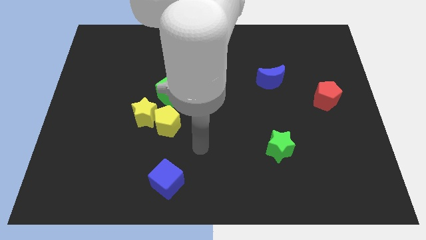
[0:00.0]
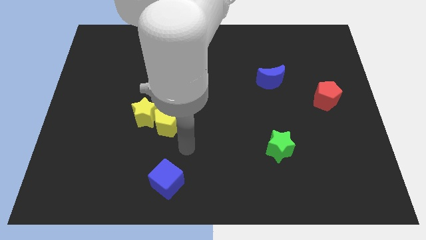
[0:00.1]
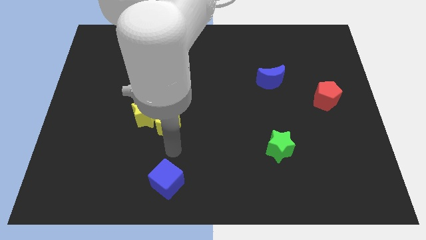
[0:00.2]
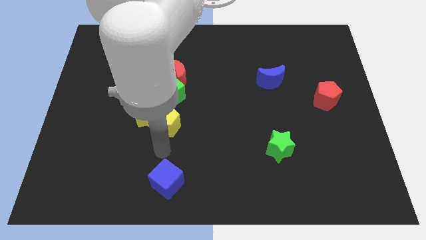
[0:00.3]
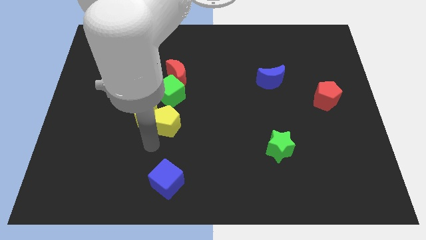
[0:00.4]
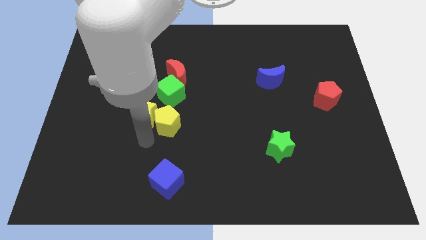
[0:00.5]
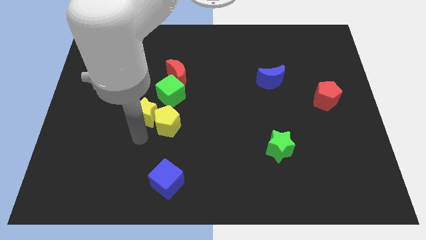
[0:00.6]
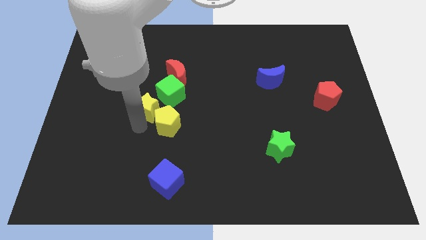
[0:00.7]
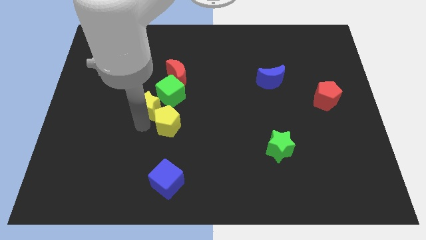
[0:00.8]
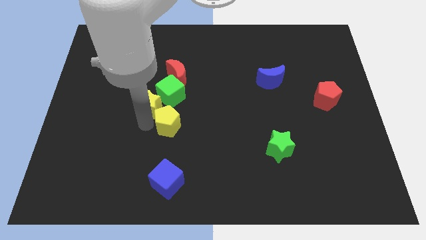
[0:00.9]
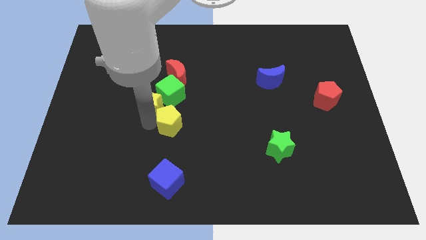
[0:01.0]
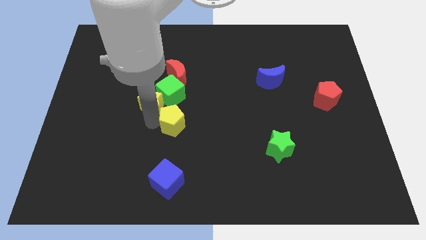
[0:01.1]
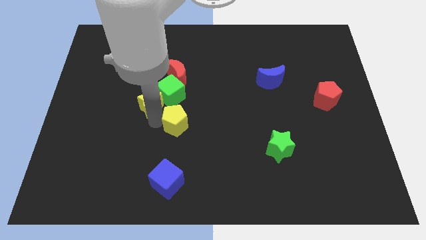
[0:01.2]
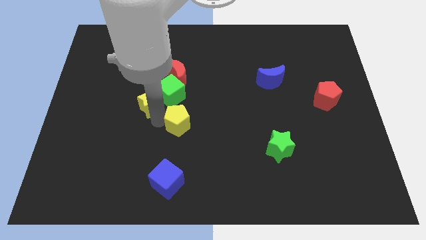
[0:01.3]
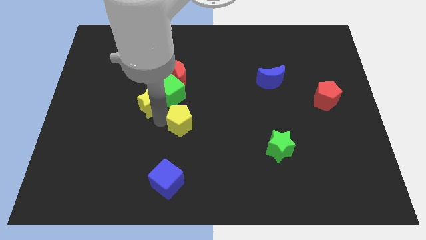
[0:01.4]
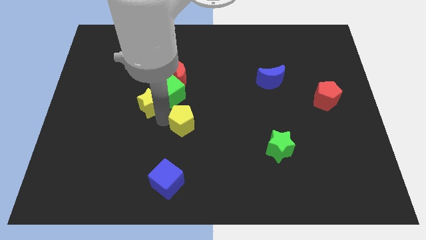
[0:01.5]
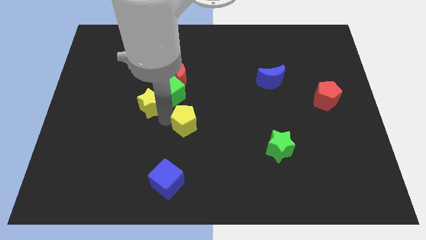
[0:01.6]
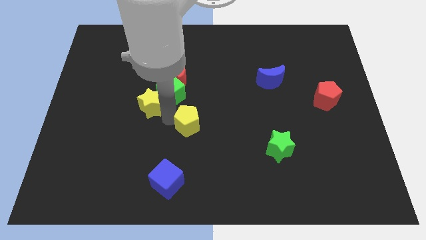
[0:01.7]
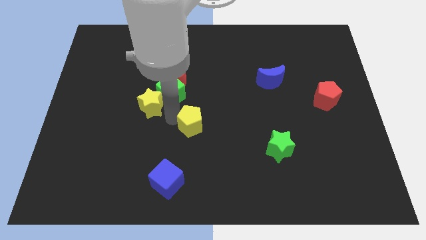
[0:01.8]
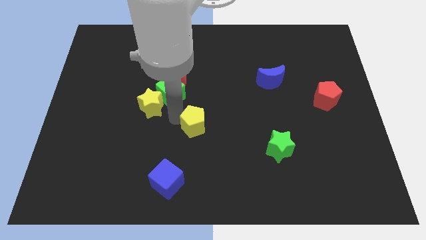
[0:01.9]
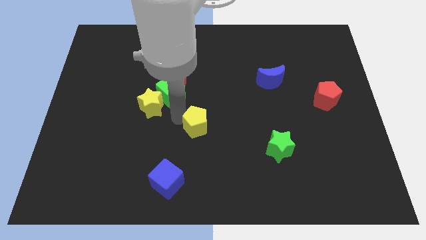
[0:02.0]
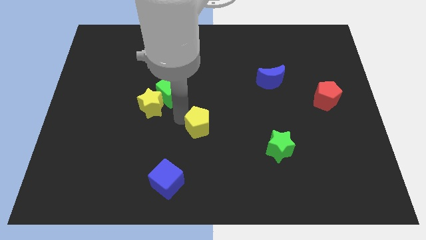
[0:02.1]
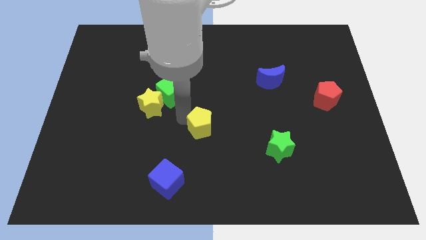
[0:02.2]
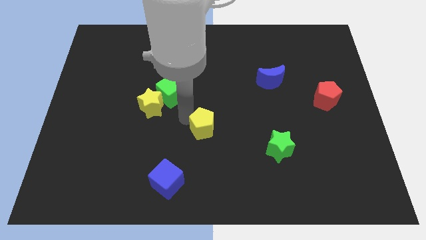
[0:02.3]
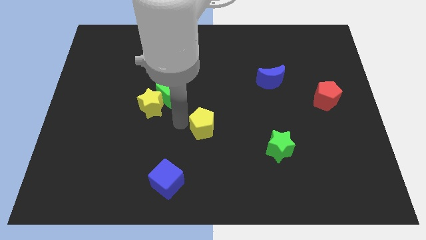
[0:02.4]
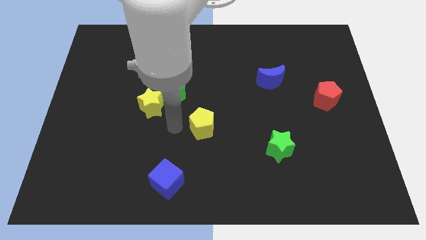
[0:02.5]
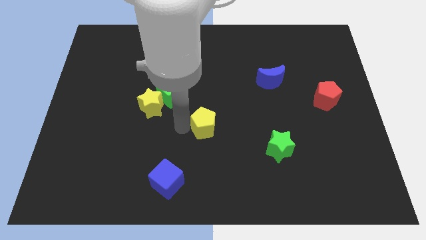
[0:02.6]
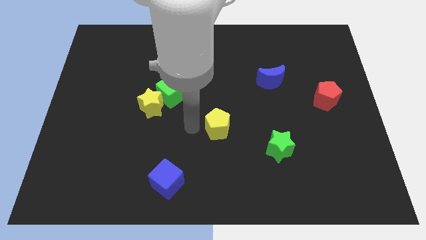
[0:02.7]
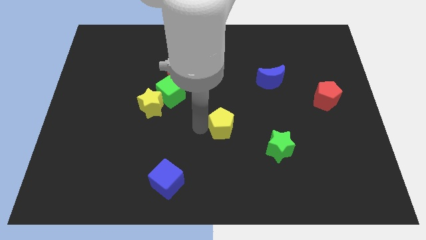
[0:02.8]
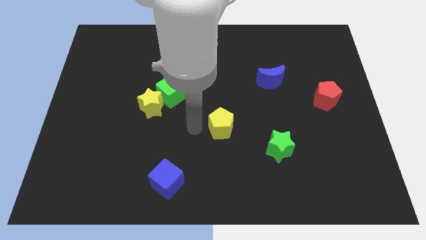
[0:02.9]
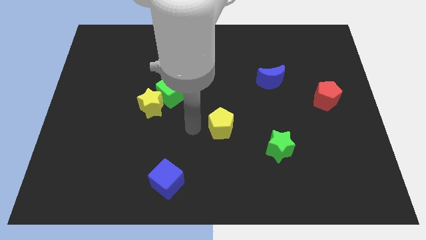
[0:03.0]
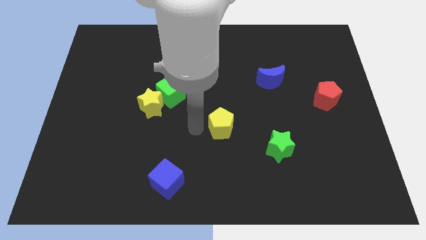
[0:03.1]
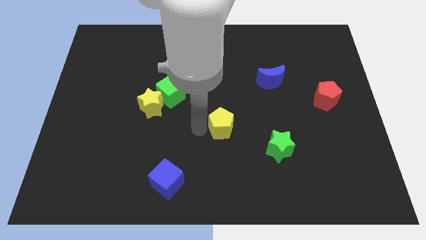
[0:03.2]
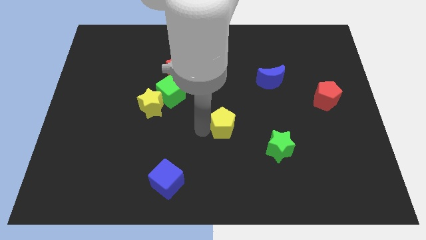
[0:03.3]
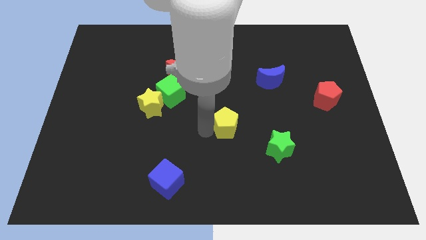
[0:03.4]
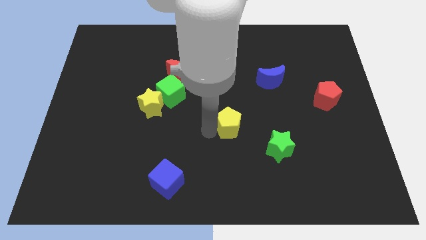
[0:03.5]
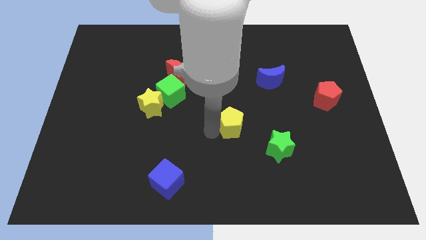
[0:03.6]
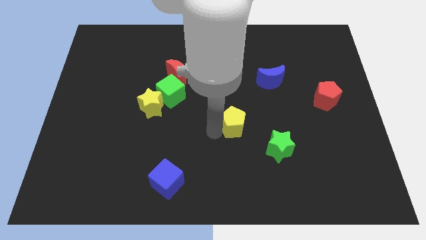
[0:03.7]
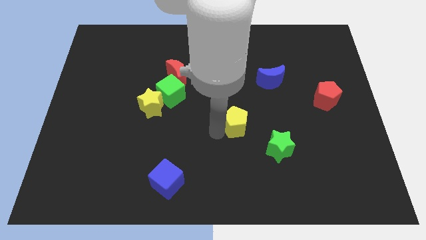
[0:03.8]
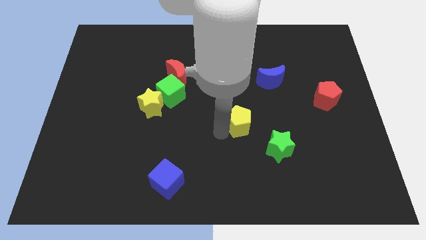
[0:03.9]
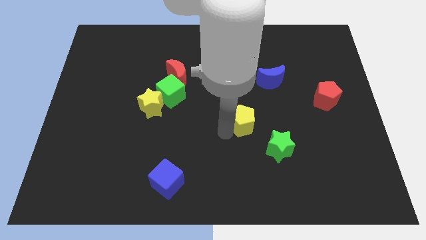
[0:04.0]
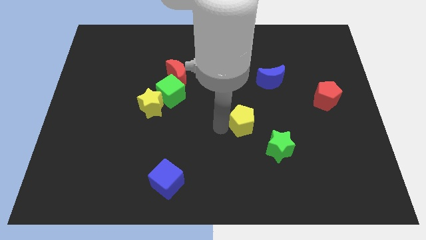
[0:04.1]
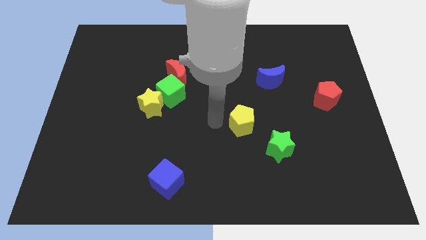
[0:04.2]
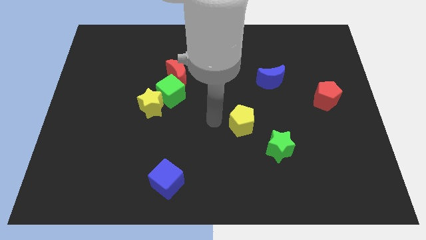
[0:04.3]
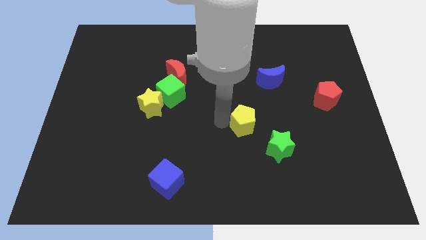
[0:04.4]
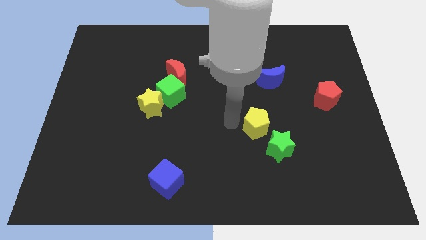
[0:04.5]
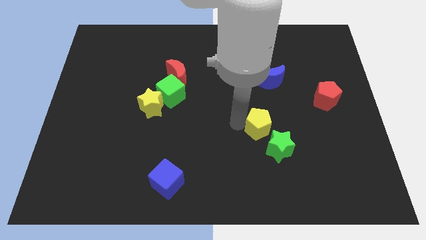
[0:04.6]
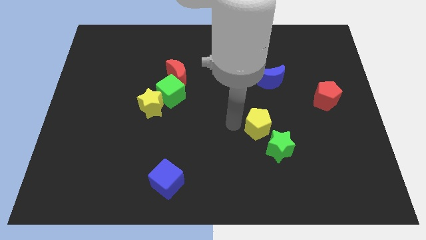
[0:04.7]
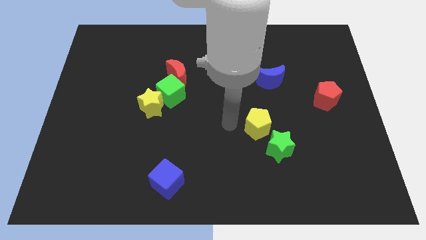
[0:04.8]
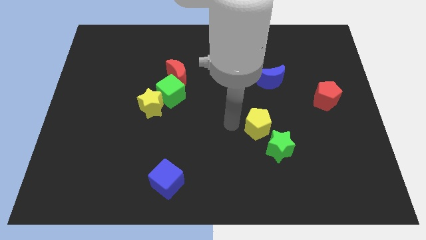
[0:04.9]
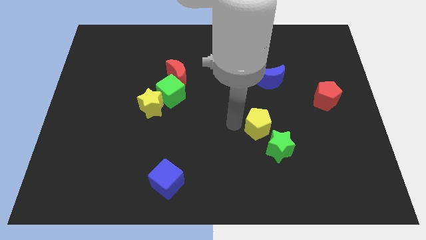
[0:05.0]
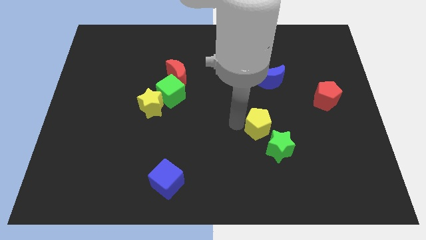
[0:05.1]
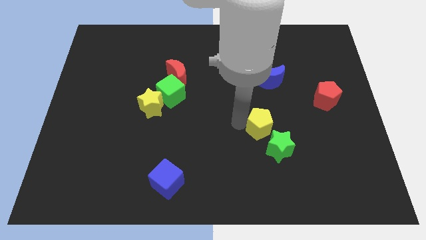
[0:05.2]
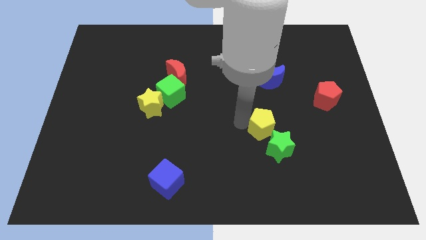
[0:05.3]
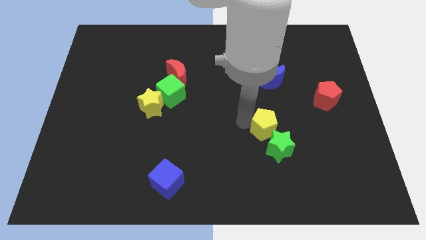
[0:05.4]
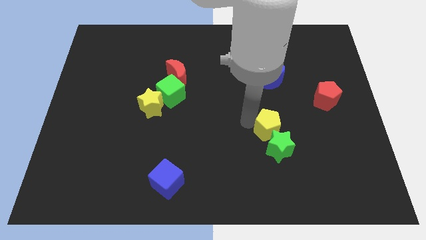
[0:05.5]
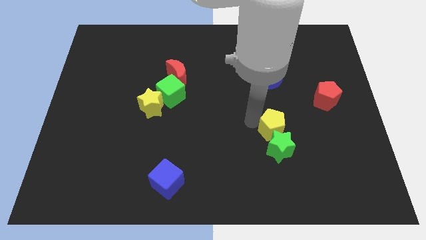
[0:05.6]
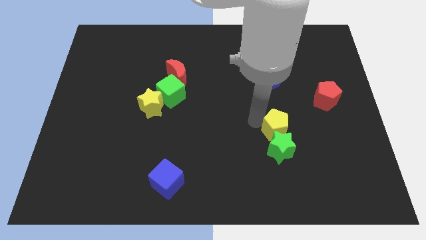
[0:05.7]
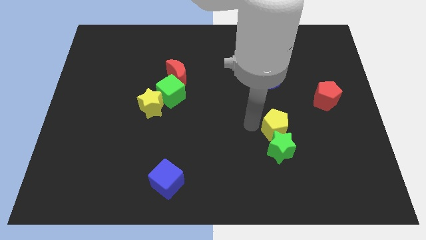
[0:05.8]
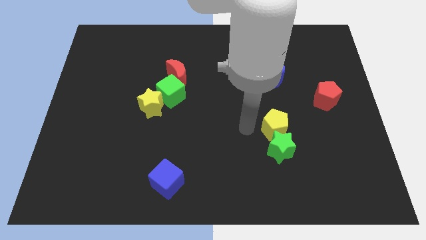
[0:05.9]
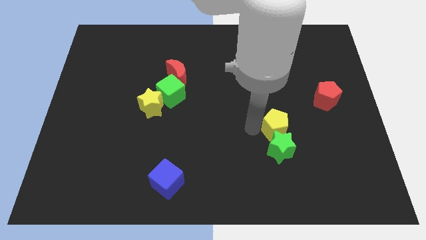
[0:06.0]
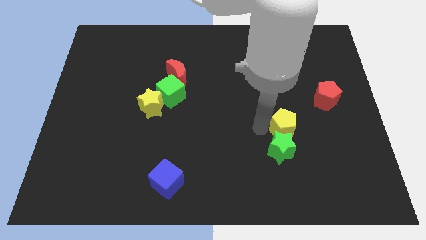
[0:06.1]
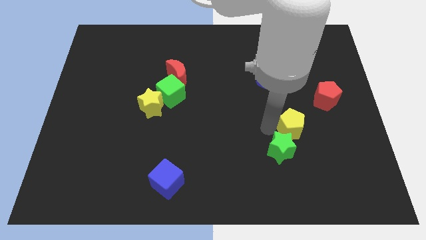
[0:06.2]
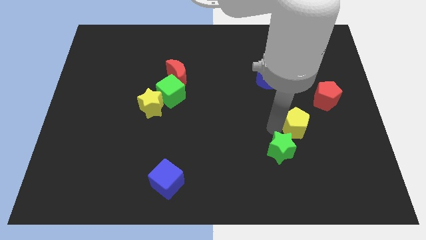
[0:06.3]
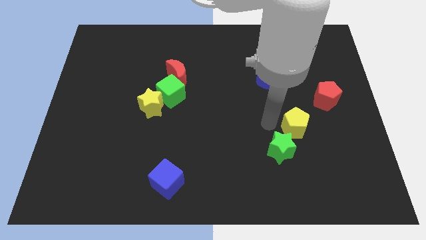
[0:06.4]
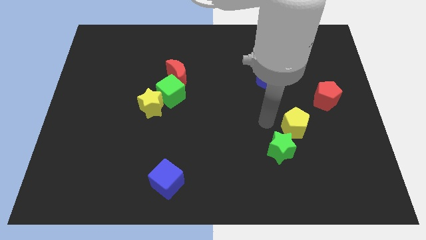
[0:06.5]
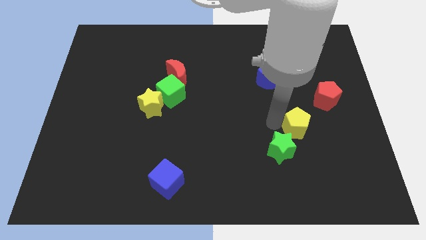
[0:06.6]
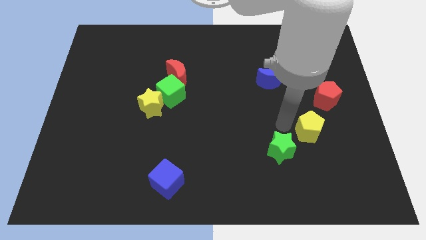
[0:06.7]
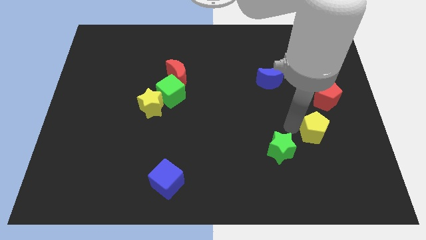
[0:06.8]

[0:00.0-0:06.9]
slide the yellow pentagon below the red pentagon

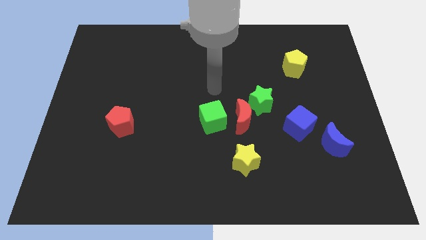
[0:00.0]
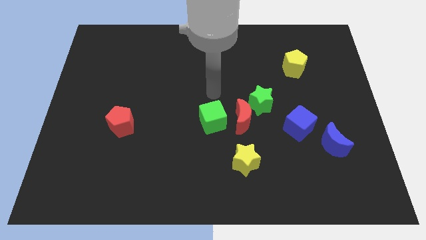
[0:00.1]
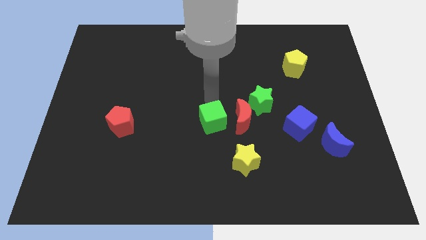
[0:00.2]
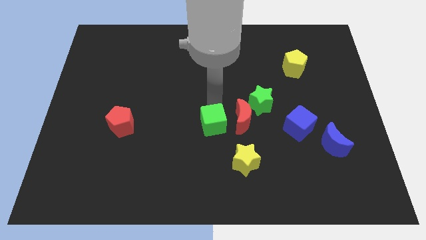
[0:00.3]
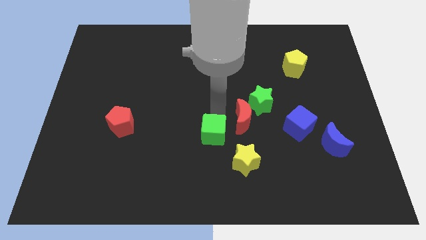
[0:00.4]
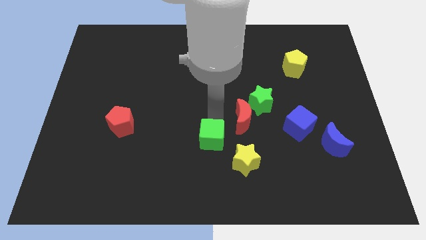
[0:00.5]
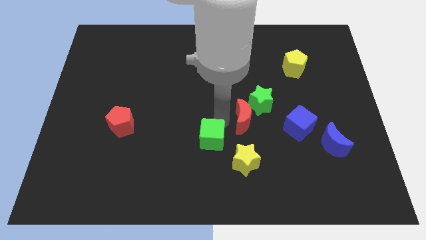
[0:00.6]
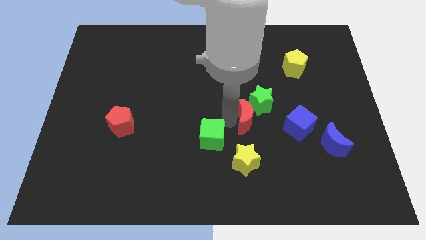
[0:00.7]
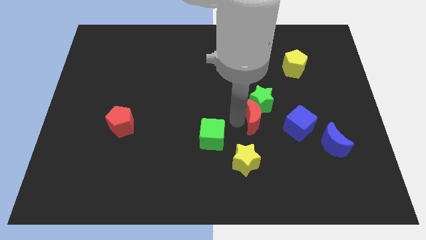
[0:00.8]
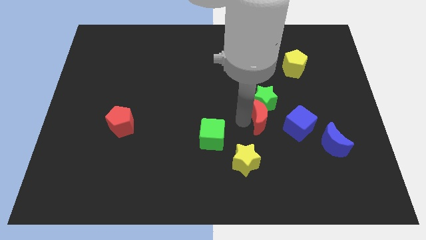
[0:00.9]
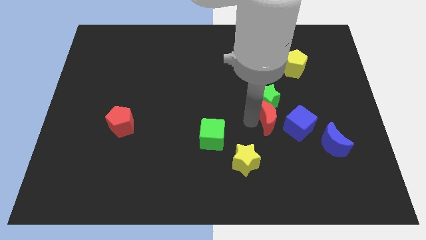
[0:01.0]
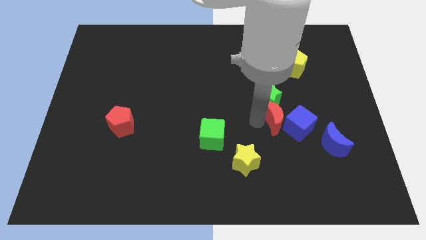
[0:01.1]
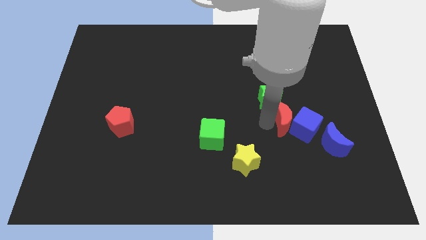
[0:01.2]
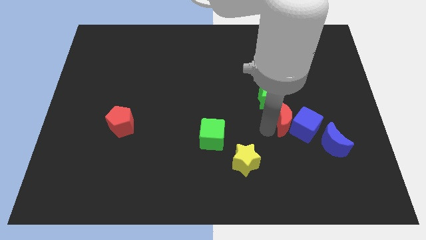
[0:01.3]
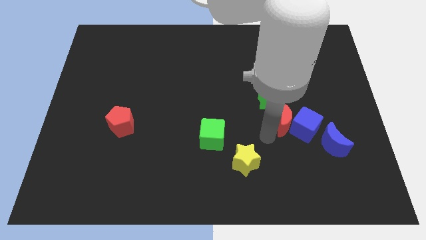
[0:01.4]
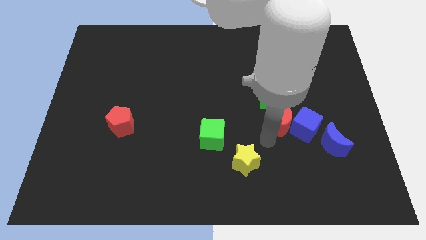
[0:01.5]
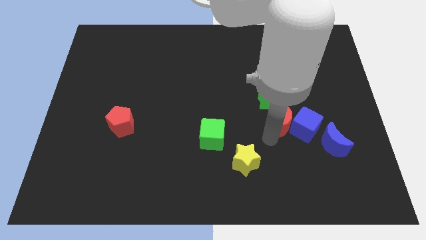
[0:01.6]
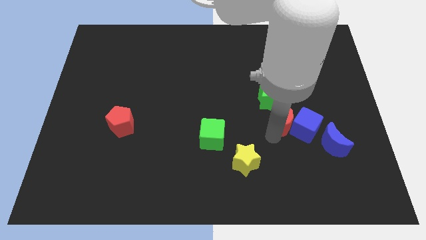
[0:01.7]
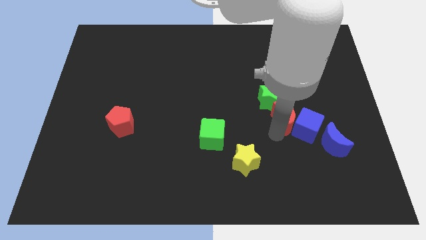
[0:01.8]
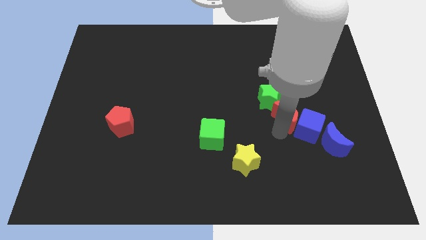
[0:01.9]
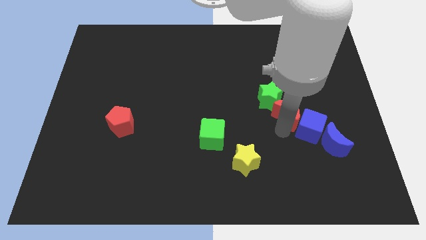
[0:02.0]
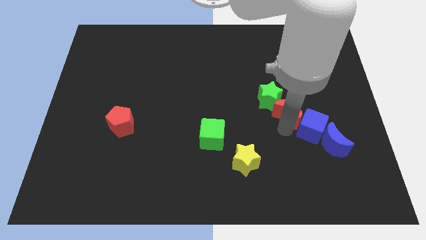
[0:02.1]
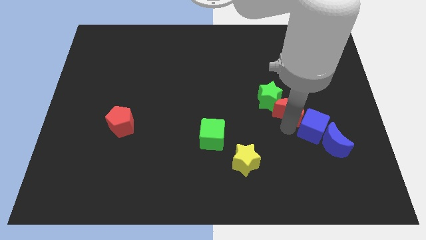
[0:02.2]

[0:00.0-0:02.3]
slide the red moon to the bottom side of the yellow pentagon
